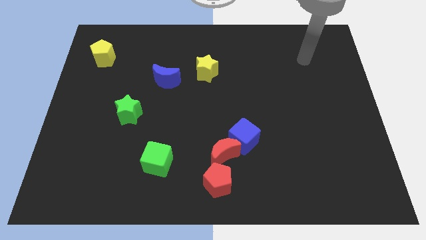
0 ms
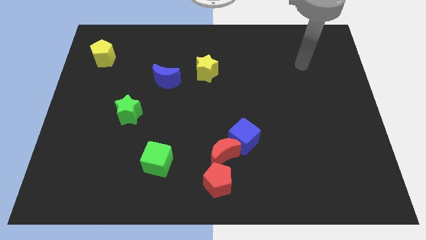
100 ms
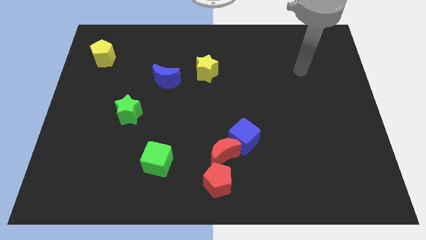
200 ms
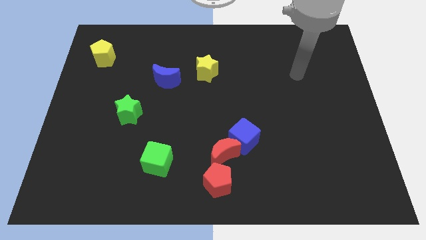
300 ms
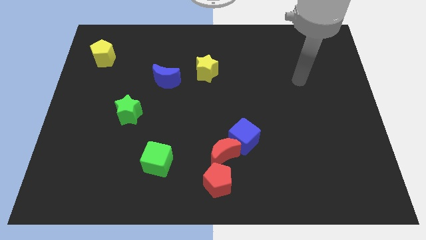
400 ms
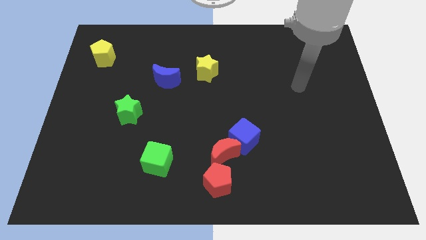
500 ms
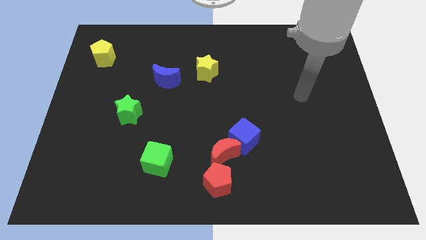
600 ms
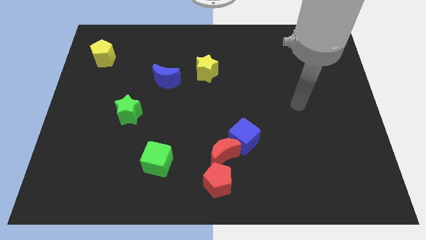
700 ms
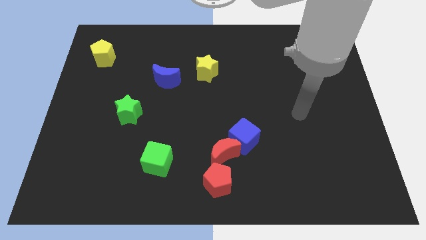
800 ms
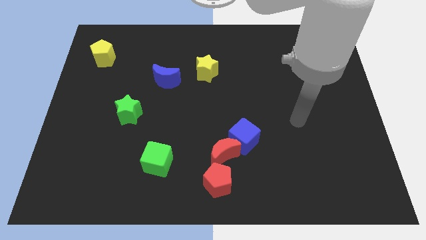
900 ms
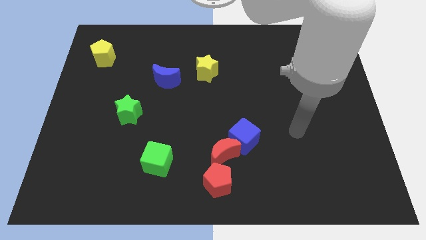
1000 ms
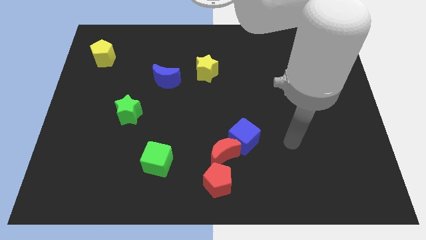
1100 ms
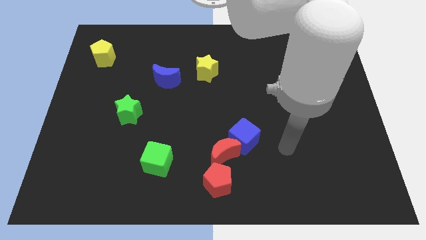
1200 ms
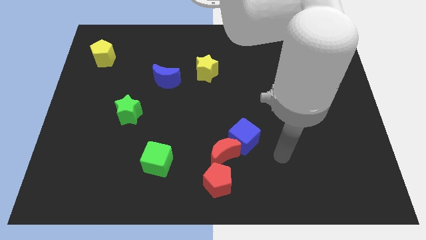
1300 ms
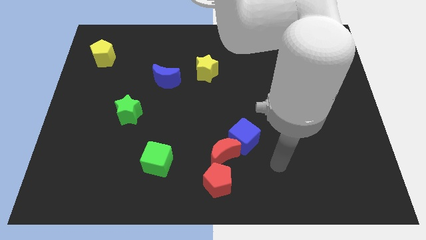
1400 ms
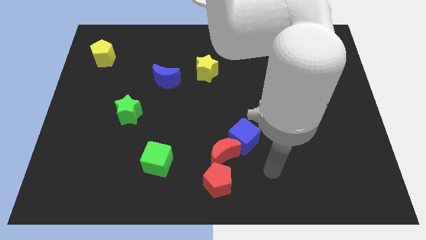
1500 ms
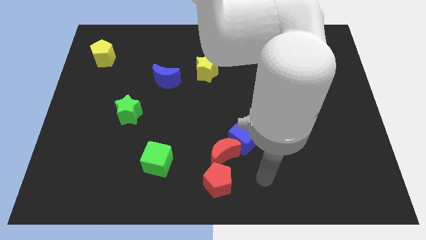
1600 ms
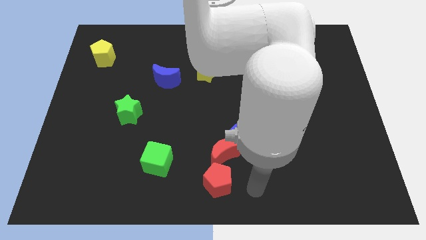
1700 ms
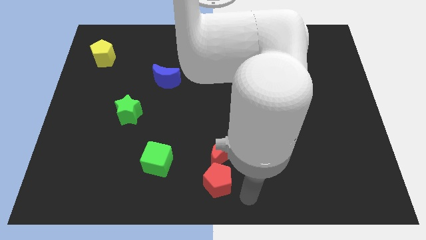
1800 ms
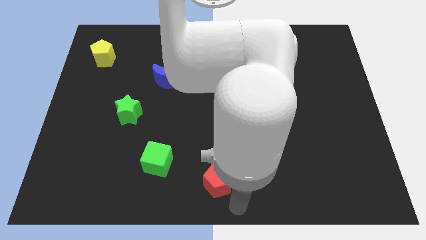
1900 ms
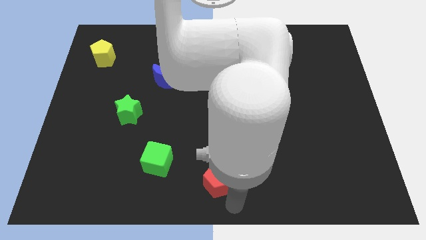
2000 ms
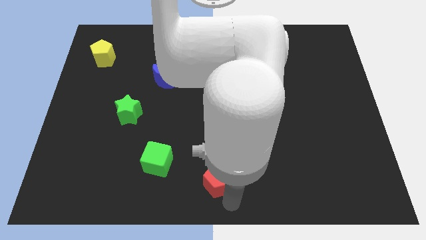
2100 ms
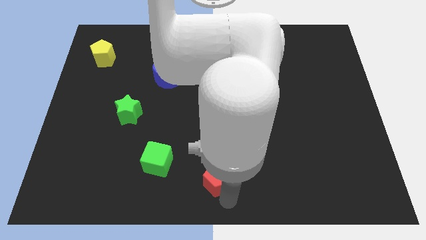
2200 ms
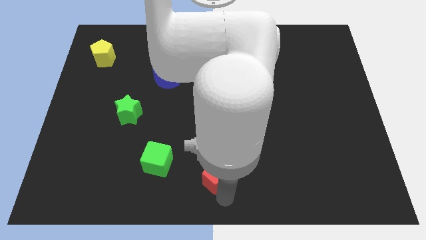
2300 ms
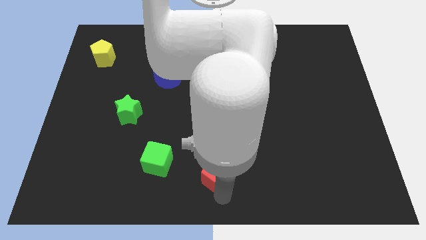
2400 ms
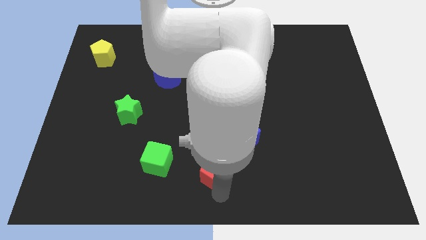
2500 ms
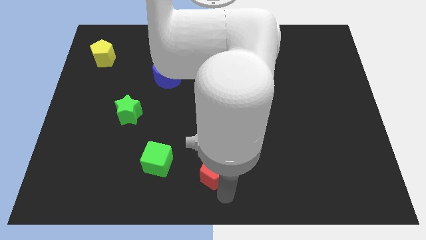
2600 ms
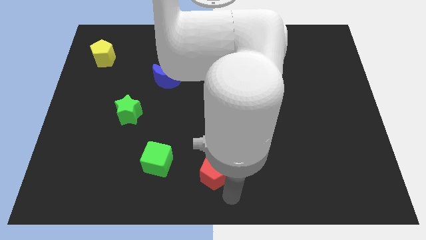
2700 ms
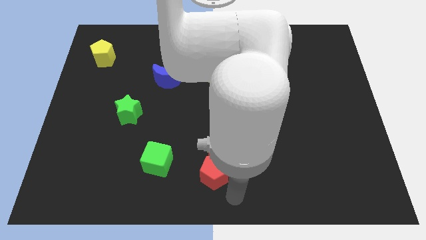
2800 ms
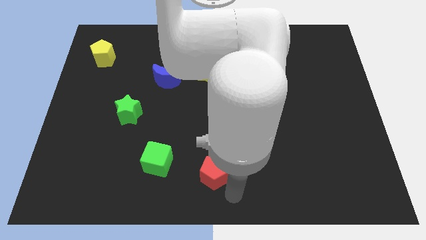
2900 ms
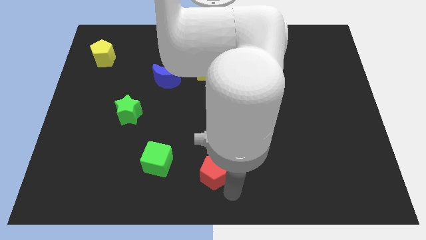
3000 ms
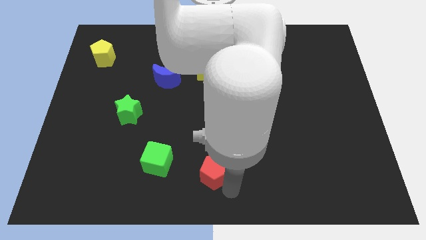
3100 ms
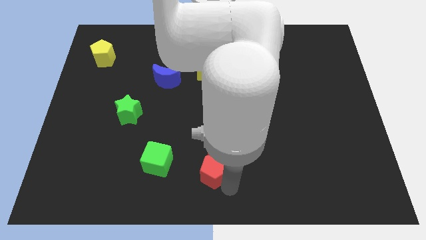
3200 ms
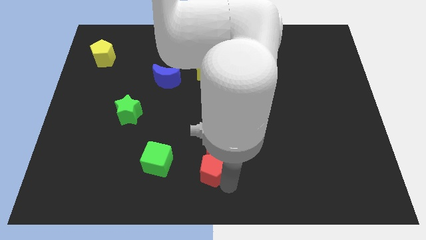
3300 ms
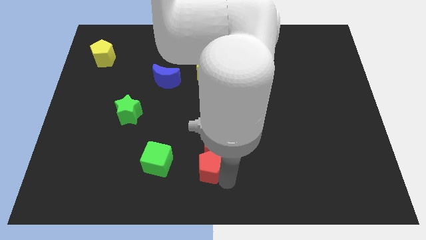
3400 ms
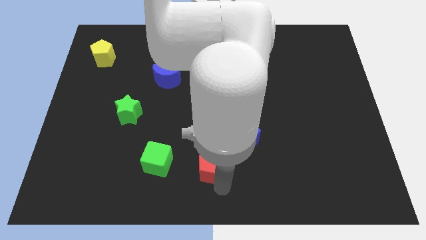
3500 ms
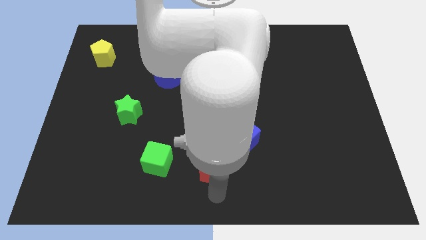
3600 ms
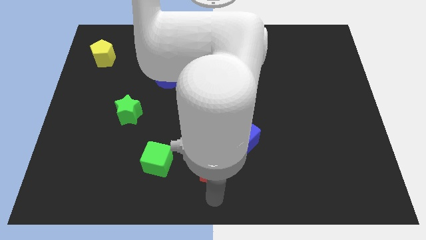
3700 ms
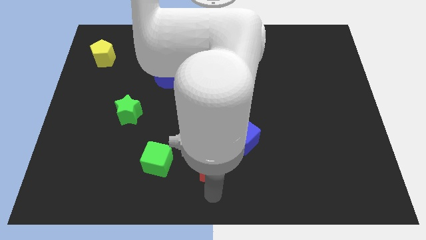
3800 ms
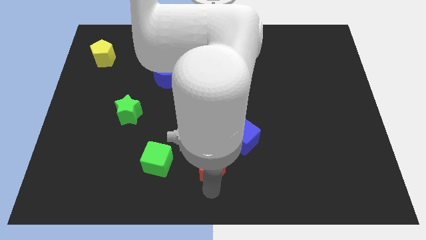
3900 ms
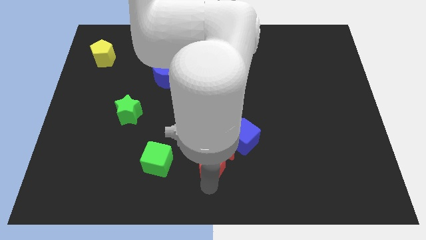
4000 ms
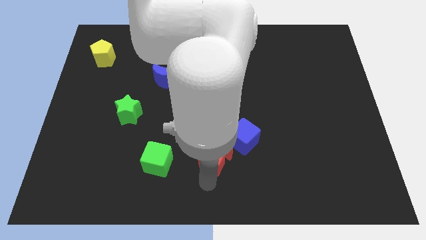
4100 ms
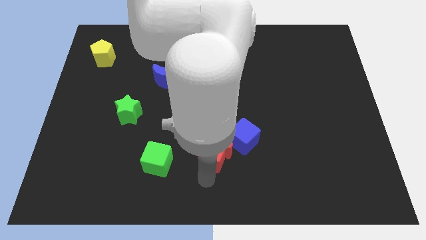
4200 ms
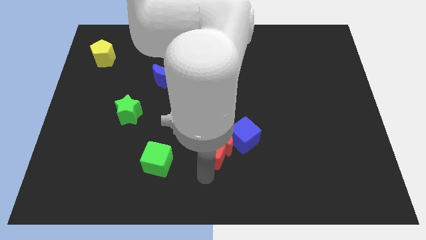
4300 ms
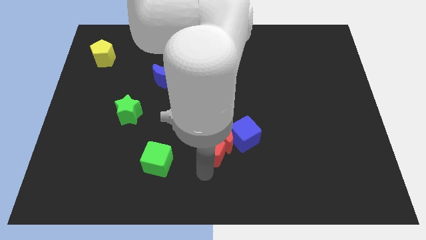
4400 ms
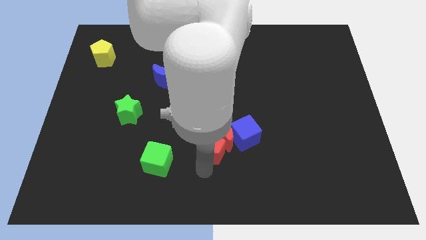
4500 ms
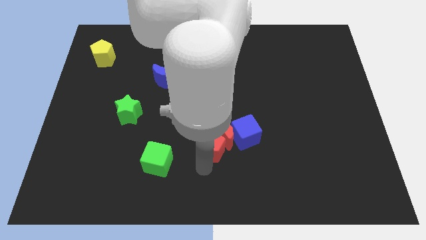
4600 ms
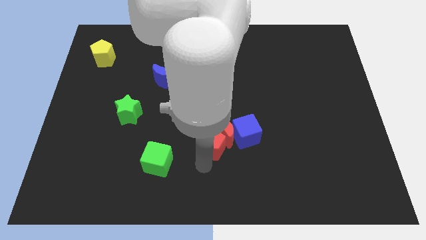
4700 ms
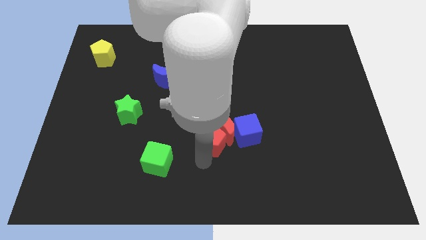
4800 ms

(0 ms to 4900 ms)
put the red pentagon to the middle

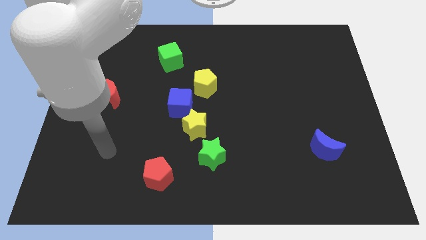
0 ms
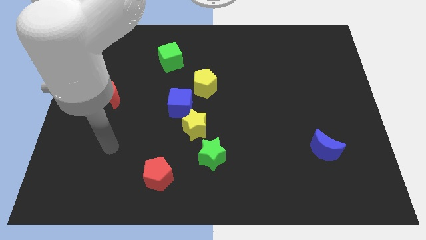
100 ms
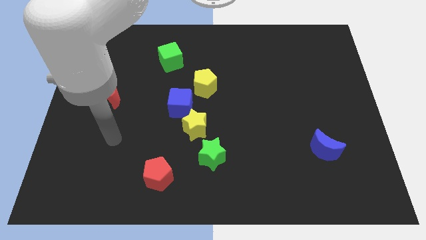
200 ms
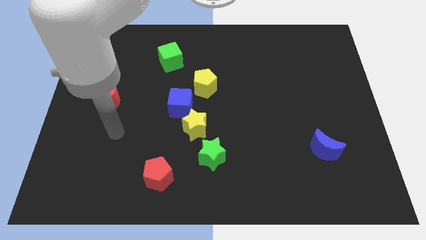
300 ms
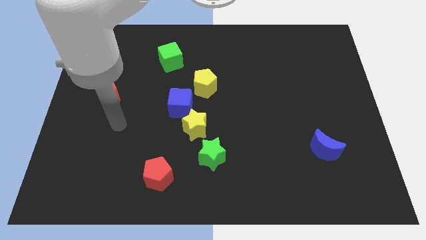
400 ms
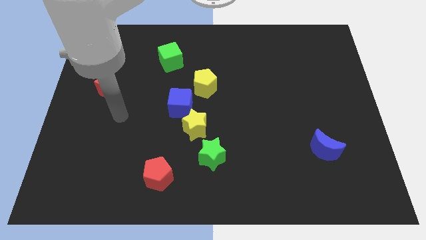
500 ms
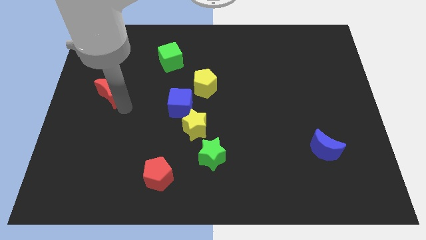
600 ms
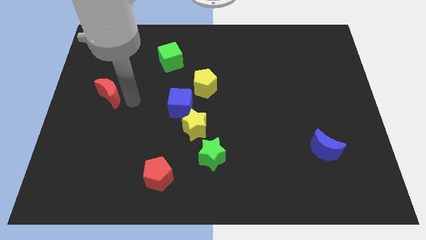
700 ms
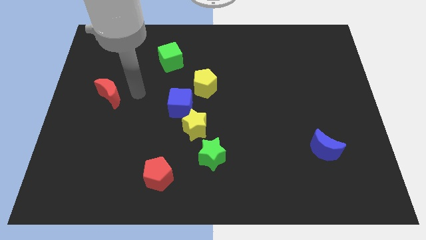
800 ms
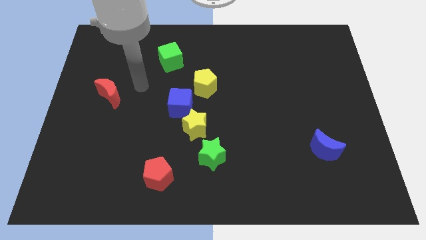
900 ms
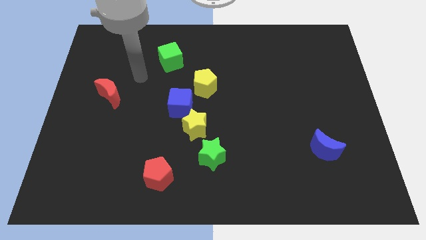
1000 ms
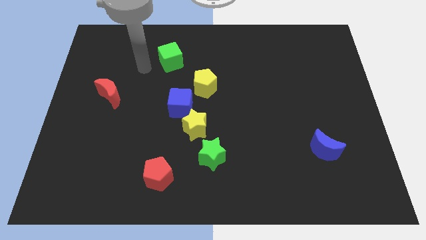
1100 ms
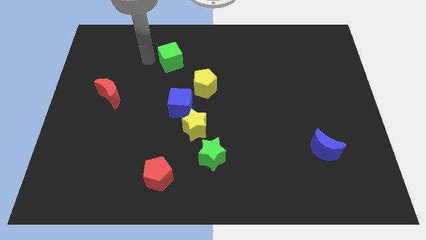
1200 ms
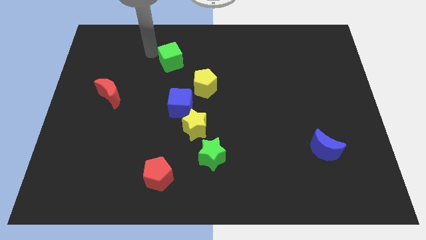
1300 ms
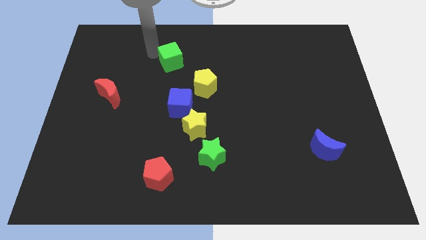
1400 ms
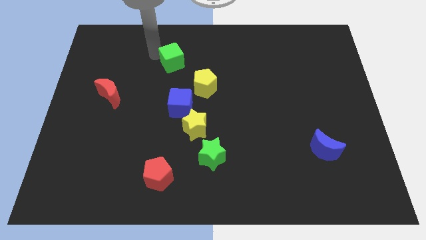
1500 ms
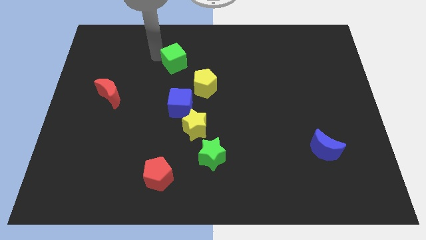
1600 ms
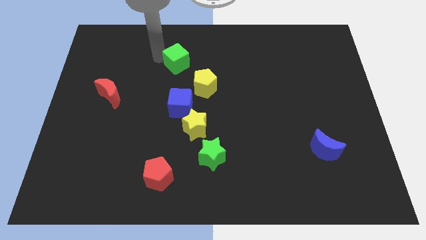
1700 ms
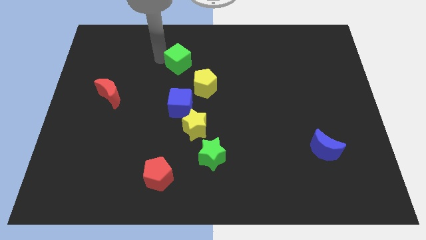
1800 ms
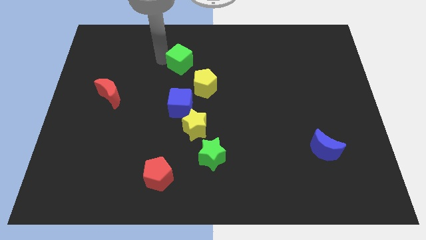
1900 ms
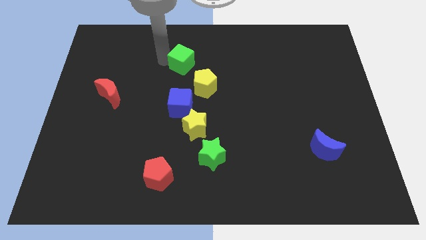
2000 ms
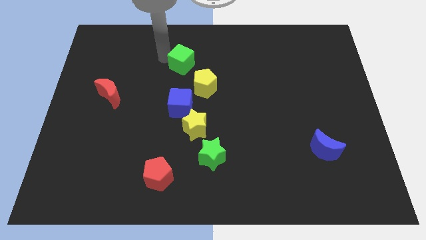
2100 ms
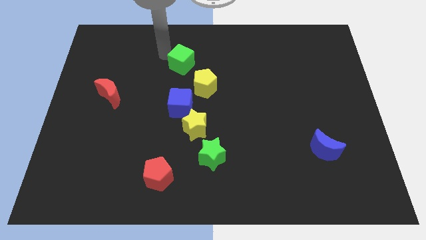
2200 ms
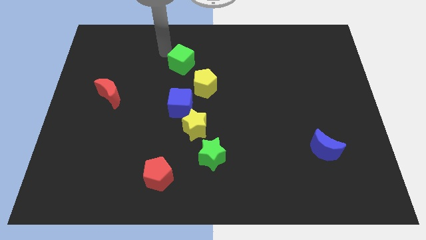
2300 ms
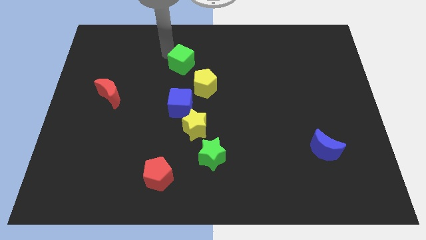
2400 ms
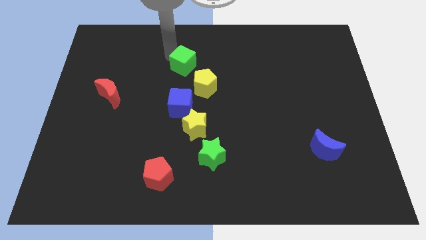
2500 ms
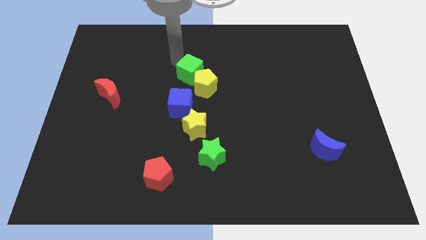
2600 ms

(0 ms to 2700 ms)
put the green cube to the middle
